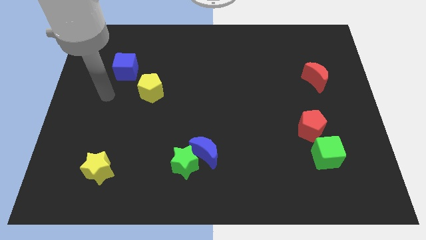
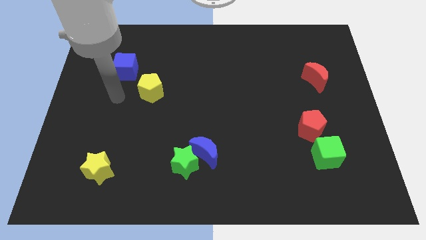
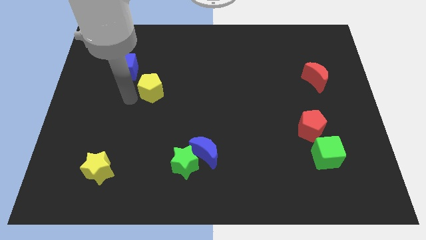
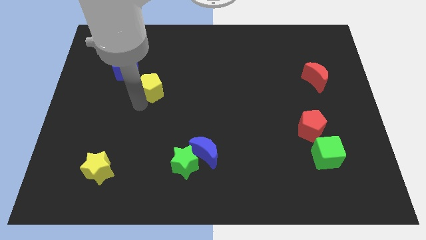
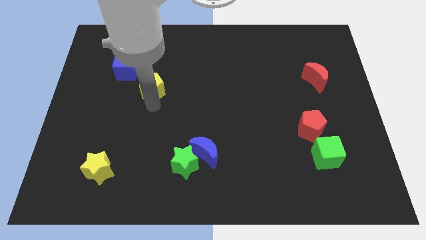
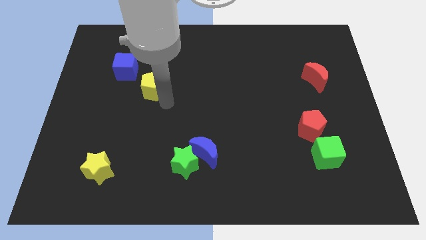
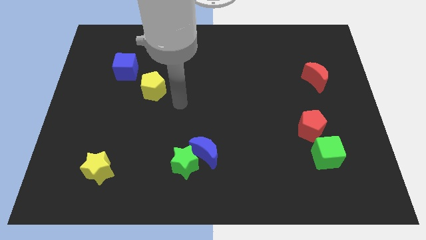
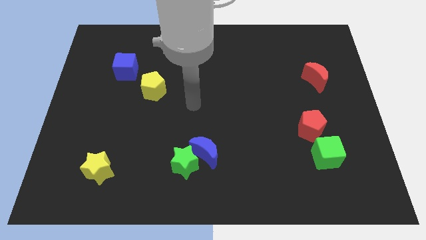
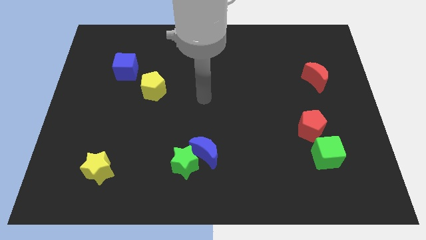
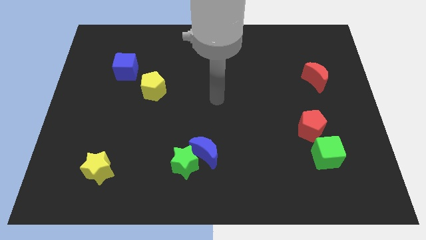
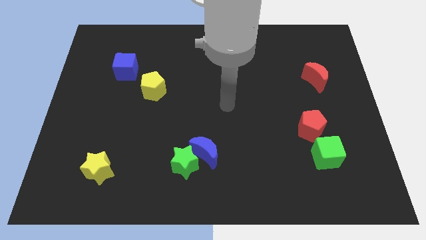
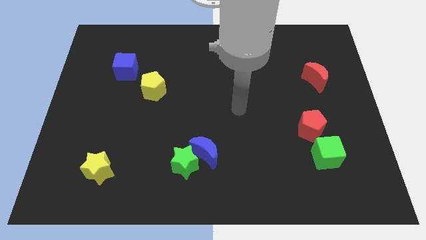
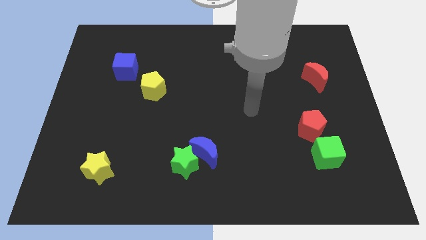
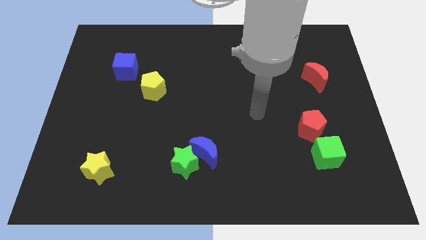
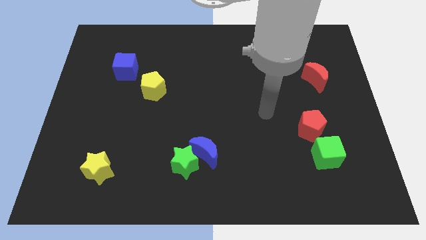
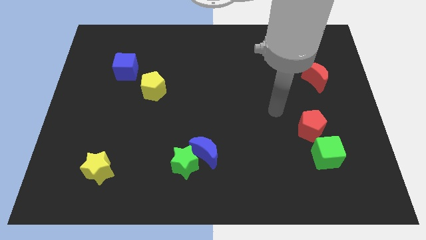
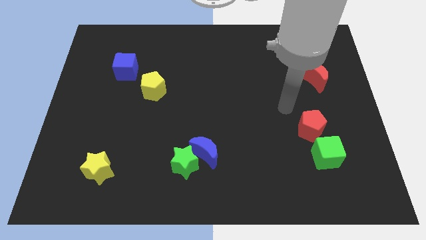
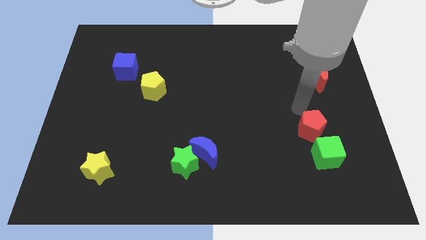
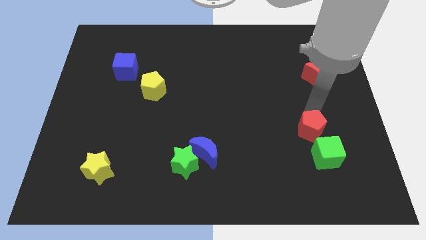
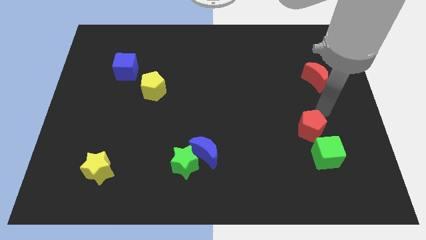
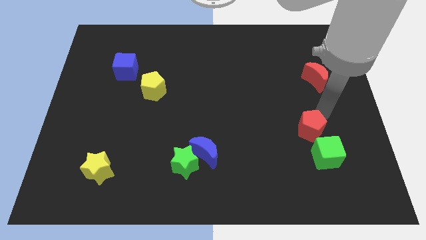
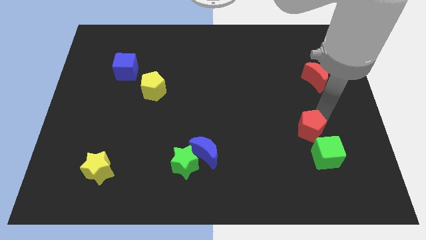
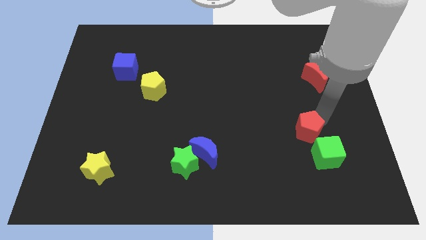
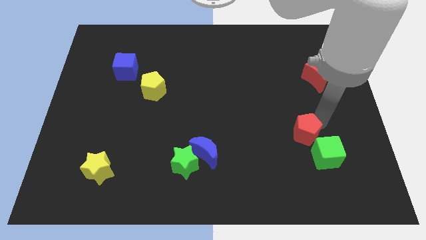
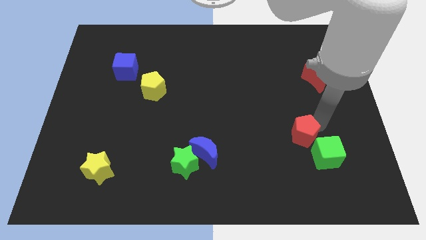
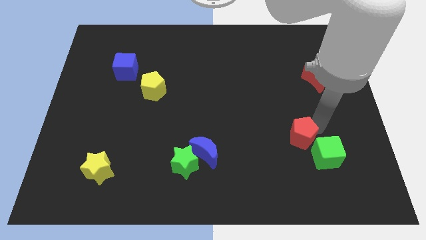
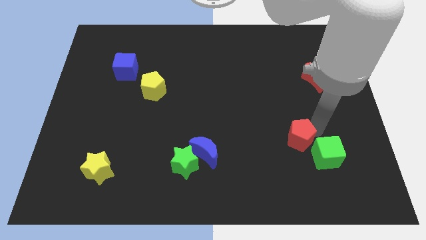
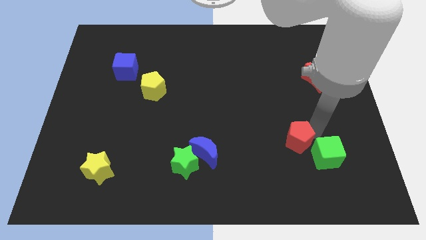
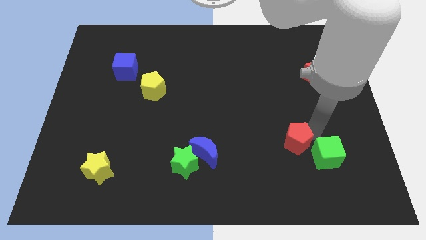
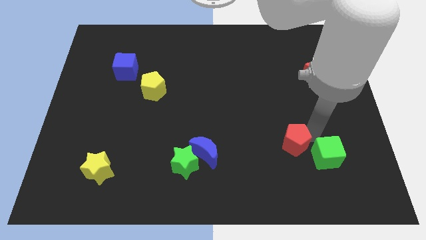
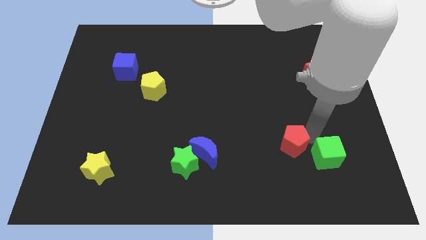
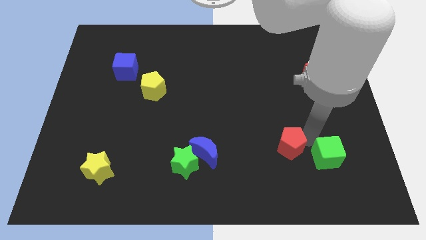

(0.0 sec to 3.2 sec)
move the red pentagon a little diagonally downwards and to the left

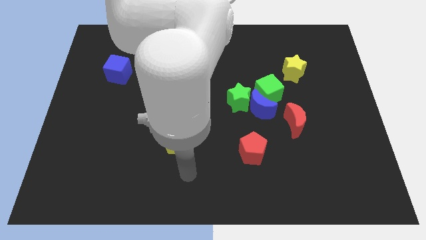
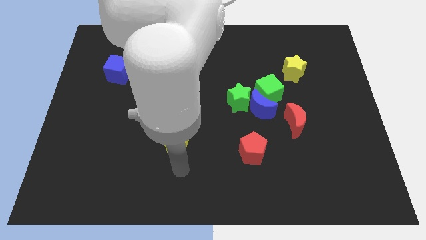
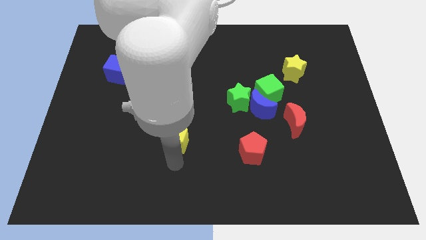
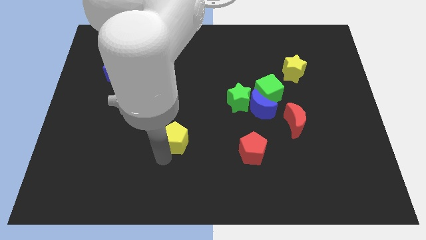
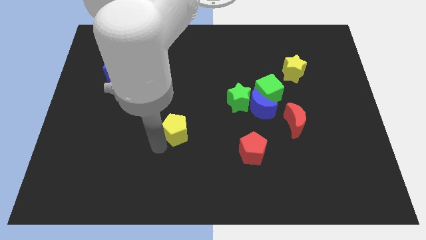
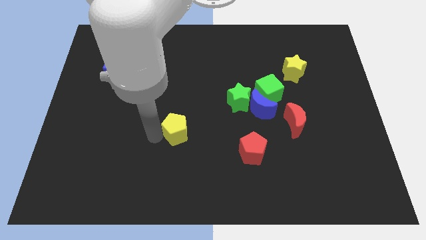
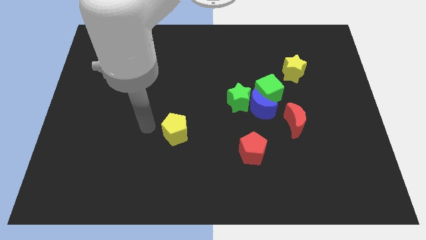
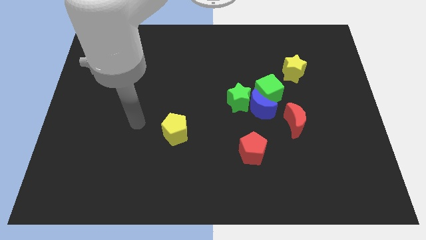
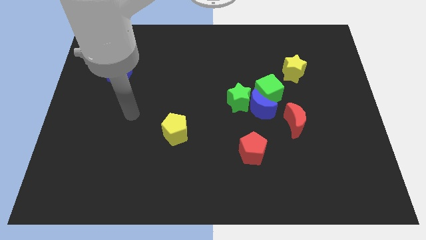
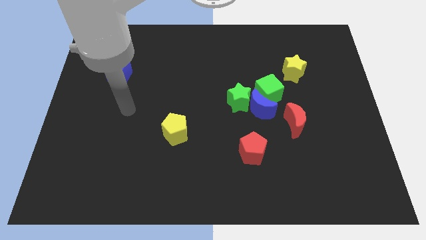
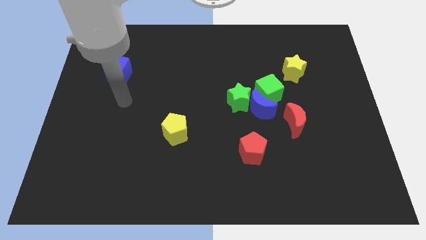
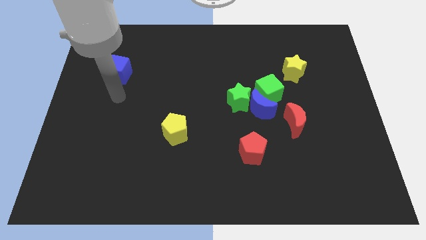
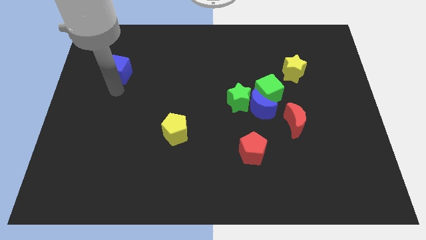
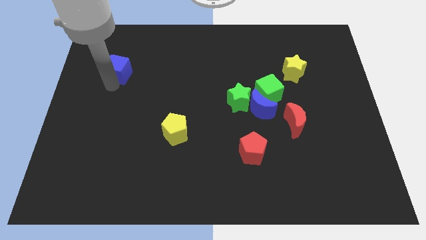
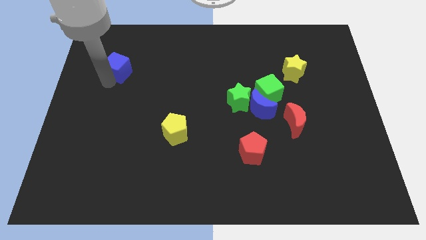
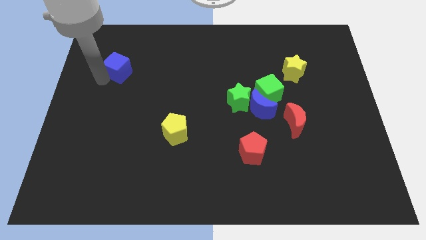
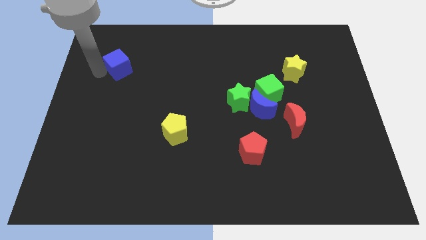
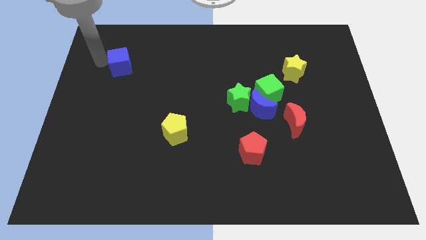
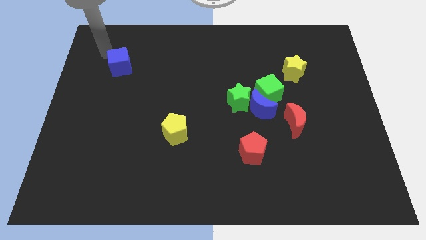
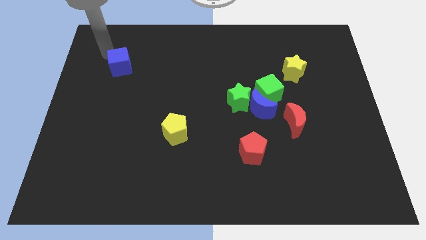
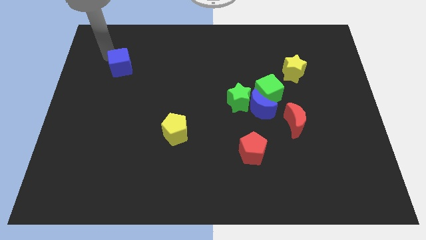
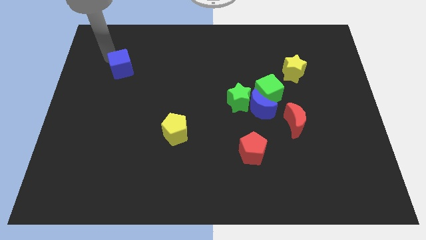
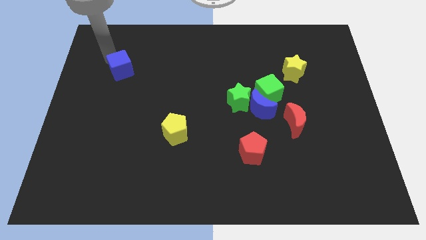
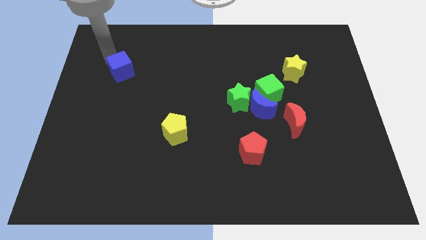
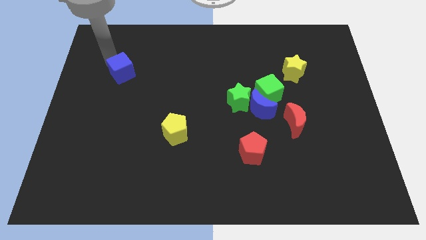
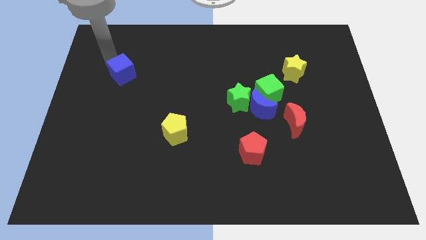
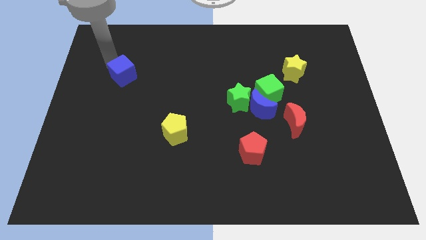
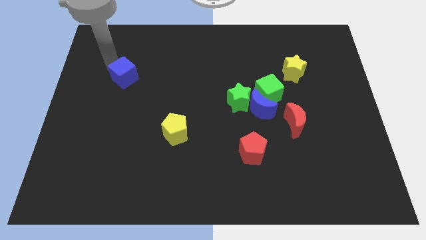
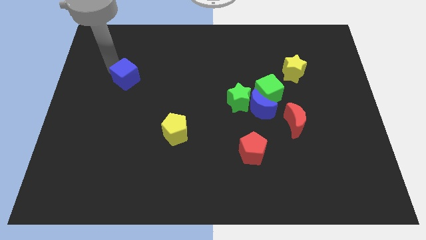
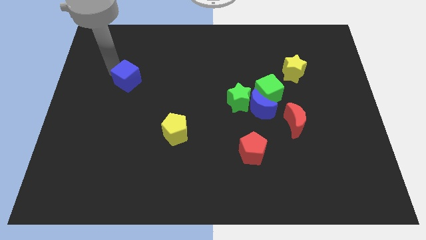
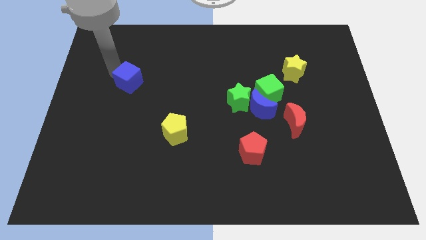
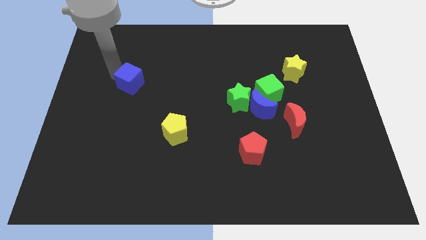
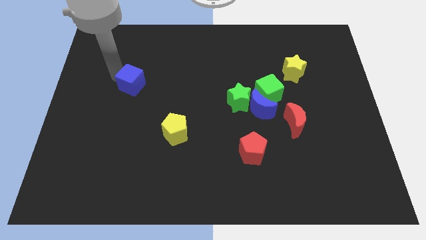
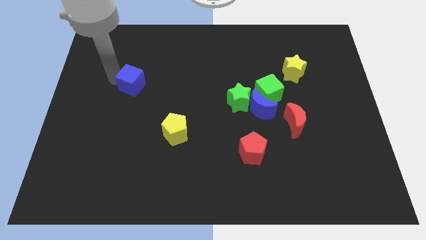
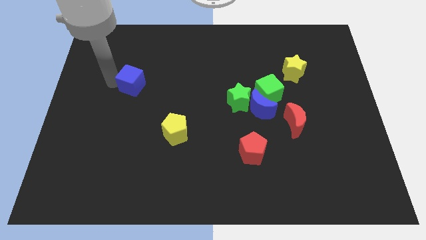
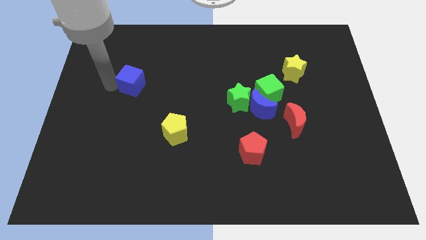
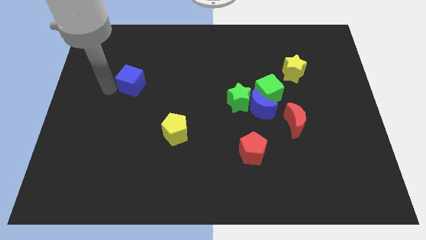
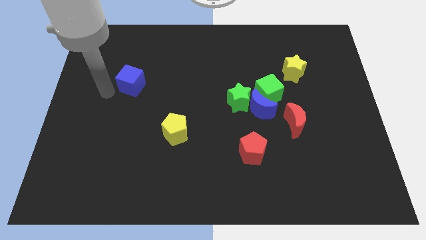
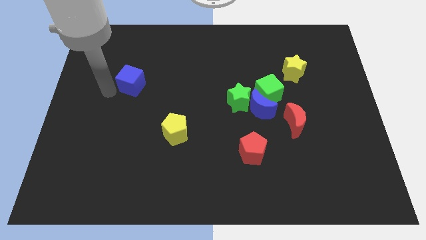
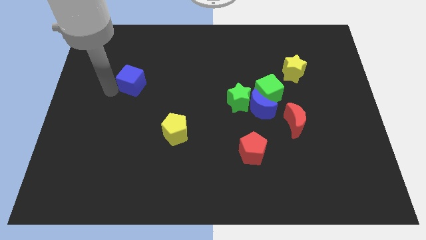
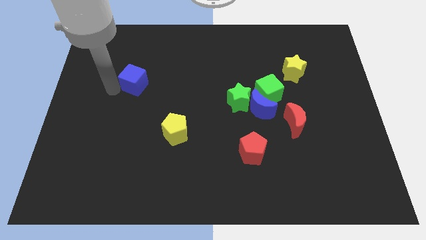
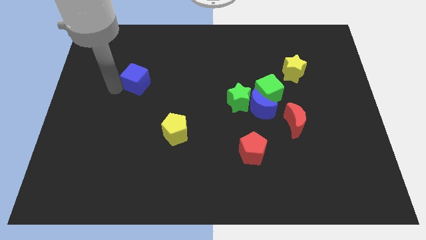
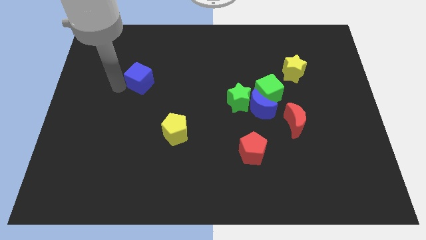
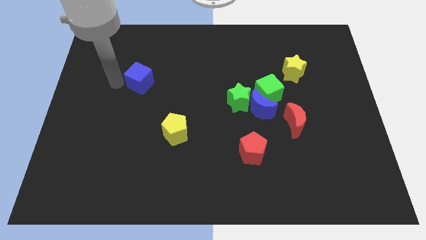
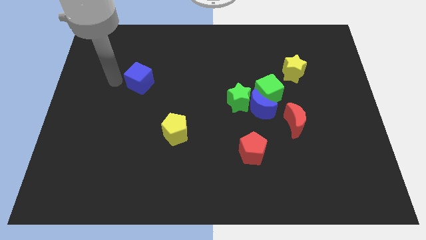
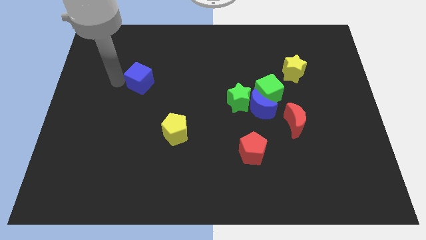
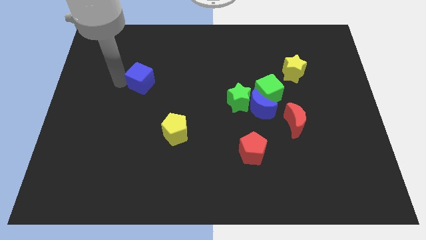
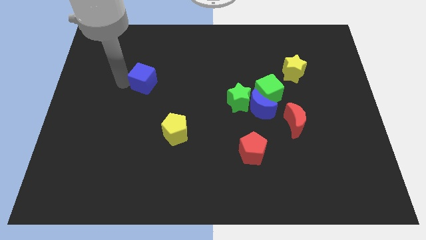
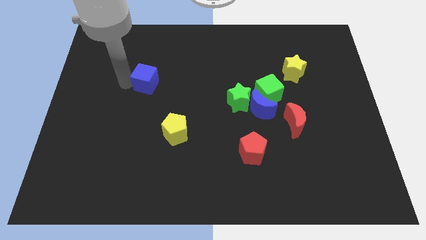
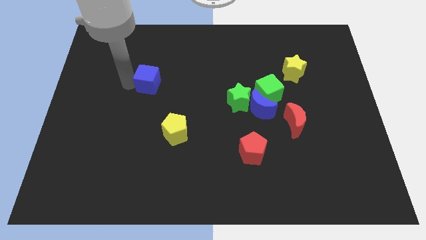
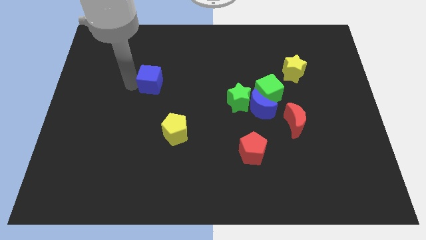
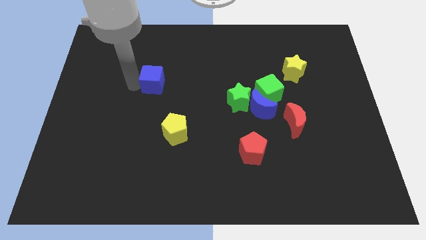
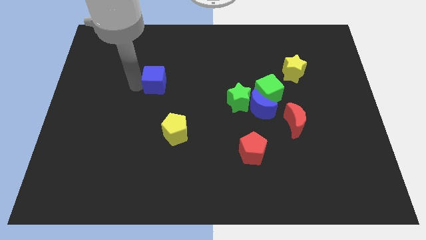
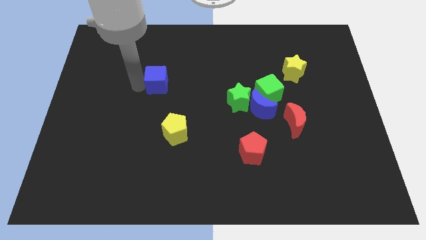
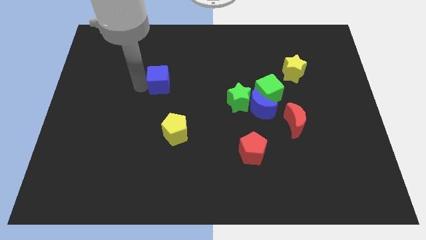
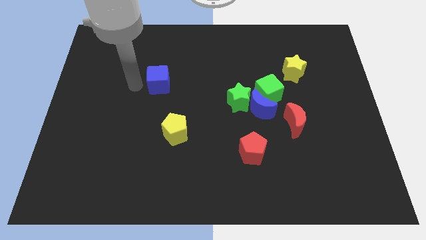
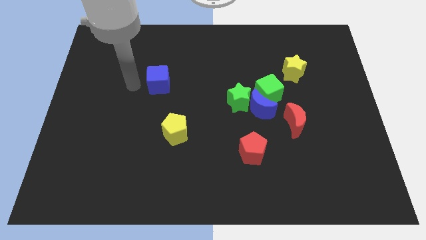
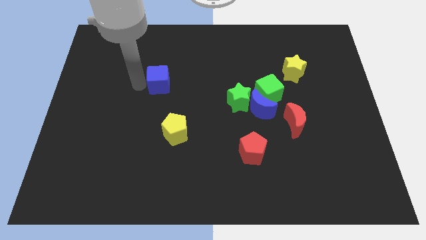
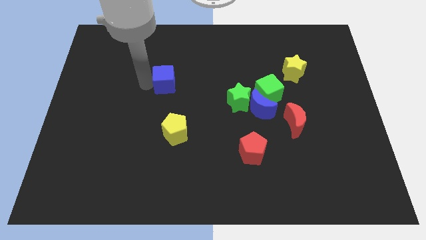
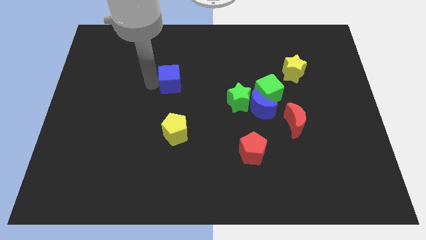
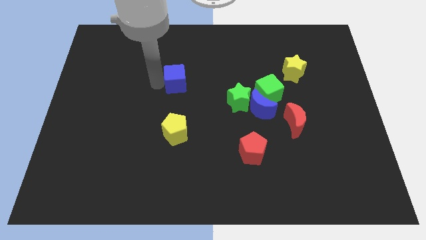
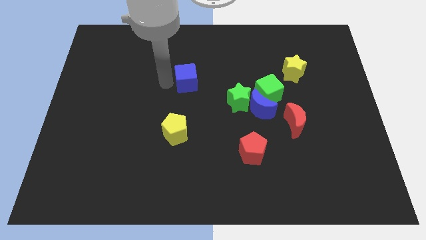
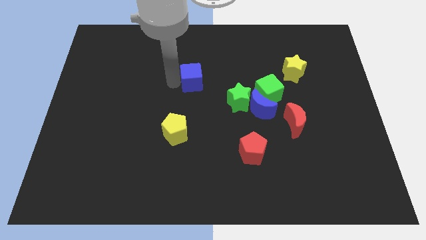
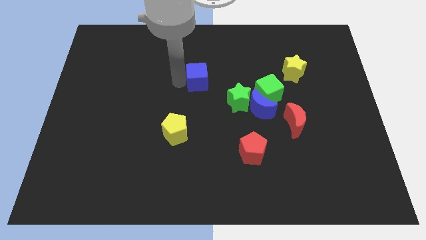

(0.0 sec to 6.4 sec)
push the blue cube to the right
